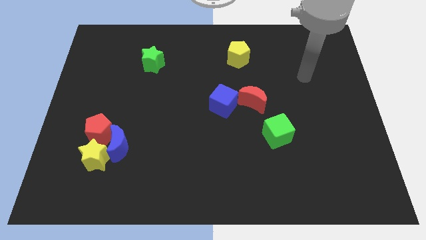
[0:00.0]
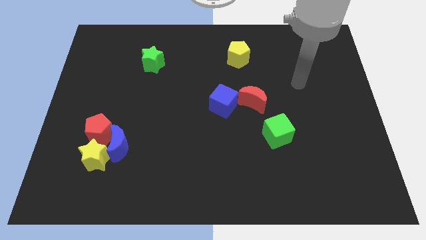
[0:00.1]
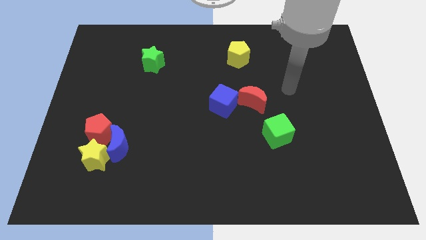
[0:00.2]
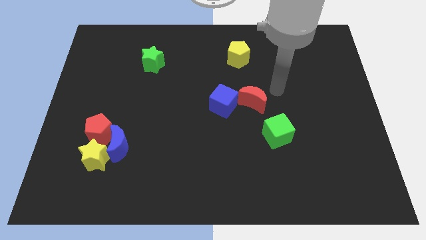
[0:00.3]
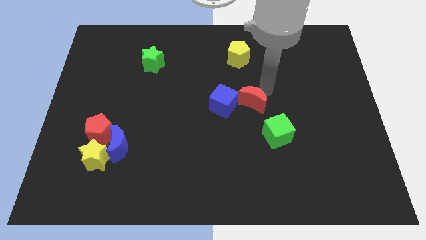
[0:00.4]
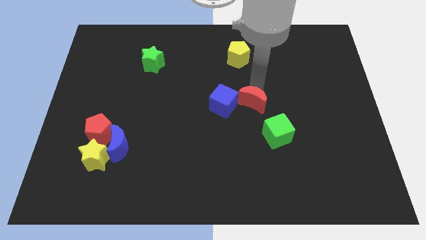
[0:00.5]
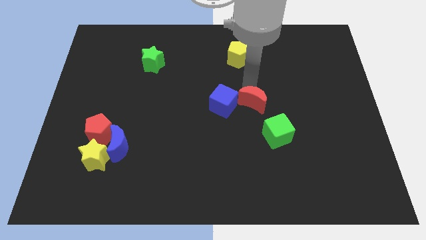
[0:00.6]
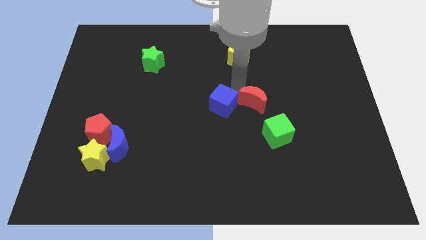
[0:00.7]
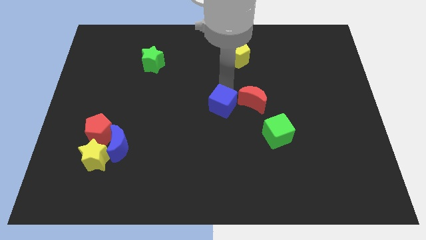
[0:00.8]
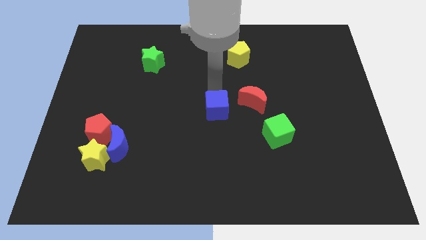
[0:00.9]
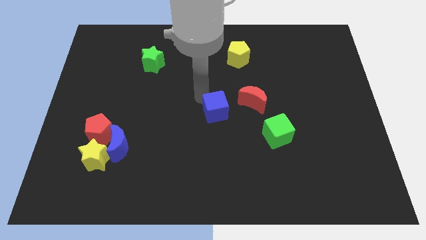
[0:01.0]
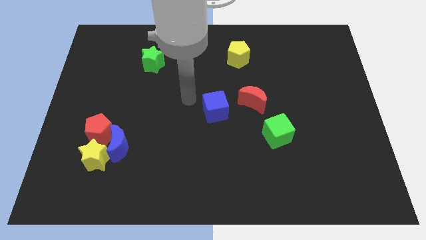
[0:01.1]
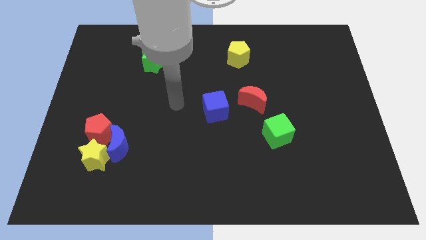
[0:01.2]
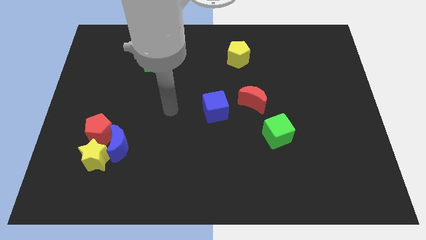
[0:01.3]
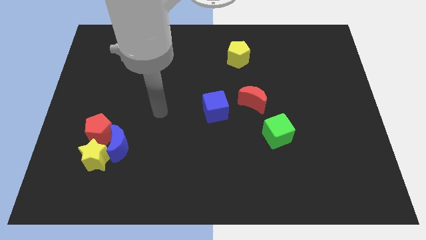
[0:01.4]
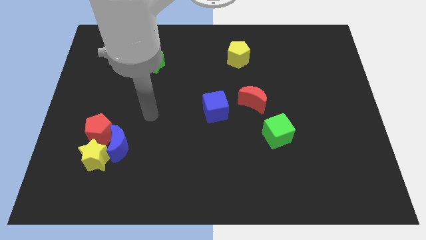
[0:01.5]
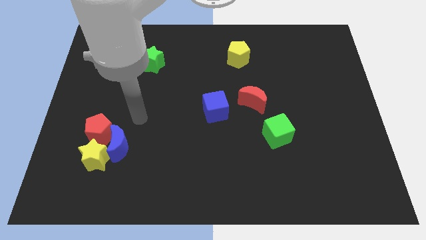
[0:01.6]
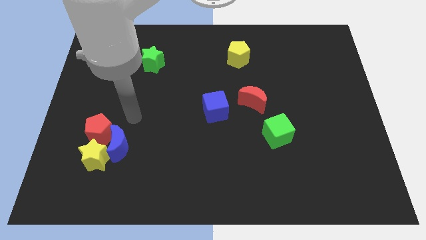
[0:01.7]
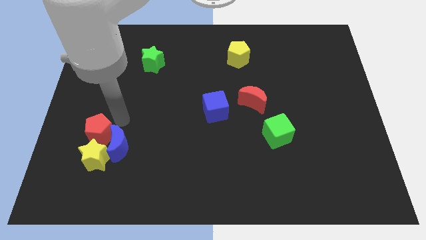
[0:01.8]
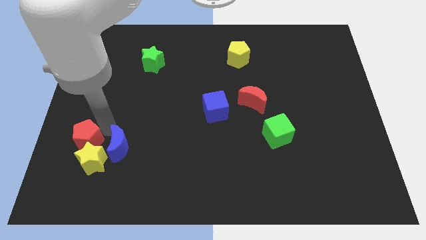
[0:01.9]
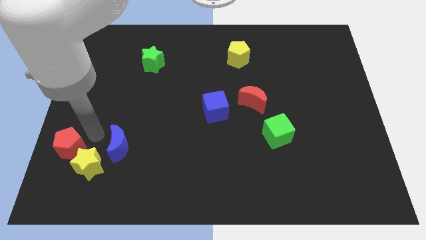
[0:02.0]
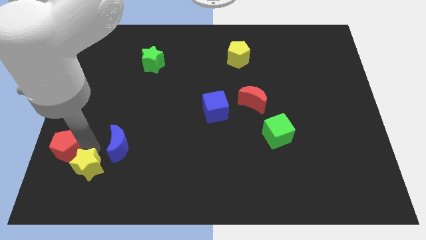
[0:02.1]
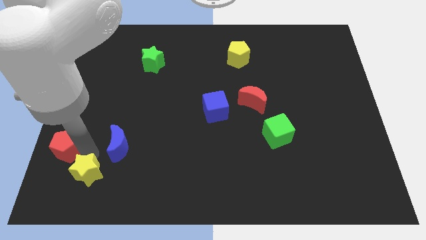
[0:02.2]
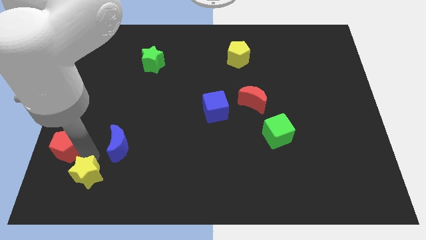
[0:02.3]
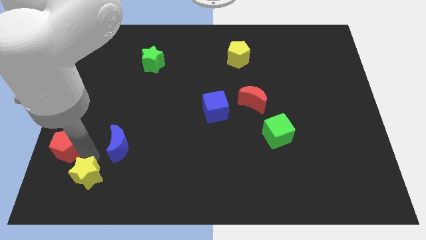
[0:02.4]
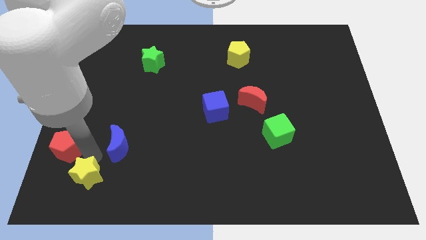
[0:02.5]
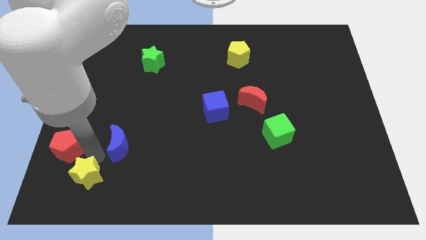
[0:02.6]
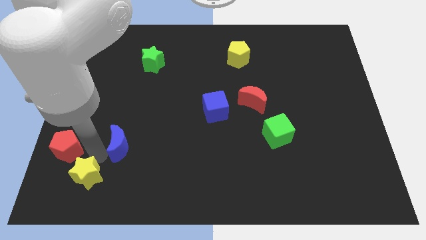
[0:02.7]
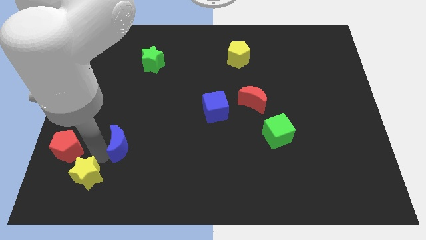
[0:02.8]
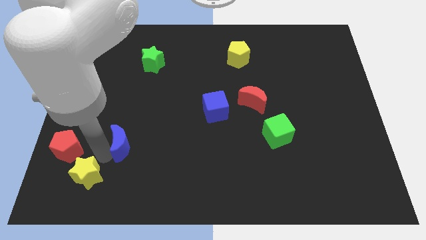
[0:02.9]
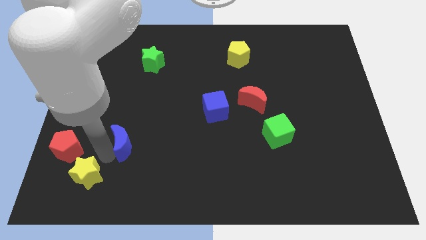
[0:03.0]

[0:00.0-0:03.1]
separate the blue moon from the yellow star and red pentagon

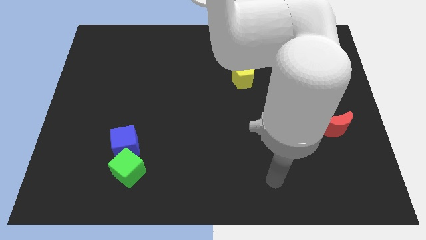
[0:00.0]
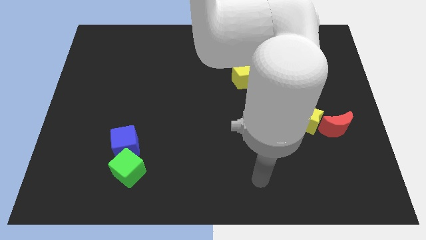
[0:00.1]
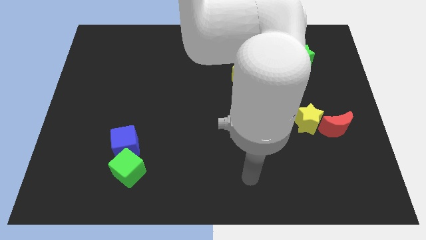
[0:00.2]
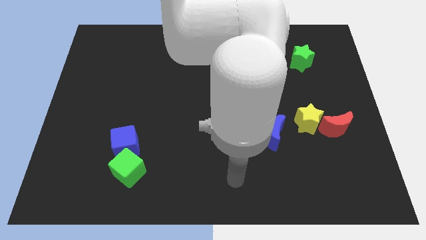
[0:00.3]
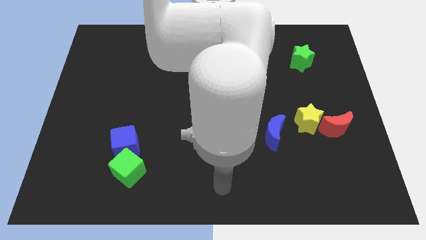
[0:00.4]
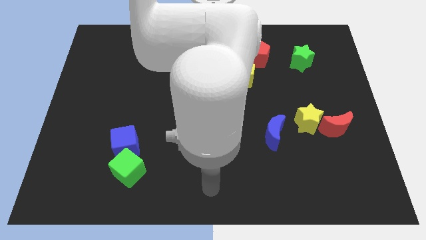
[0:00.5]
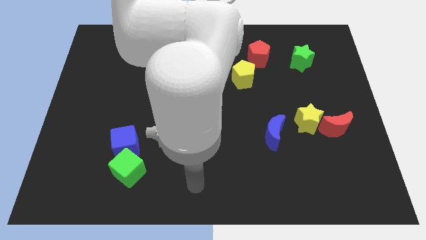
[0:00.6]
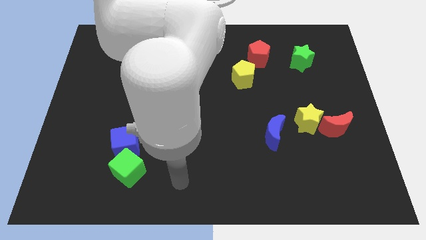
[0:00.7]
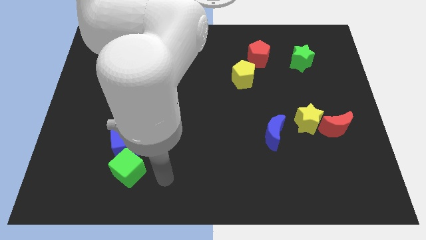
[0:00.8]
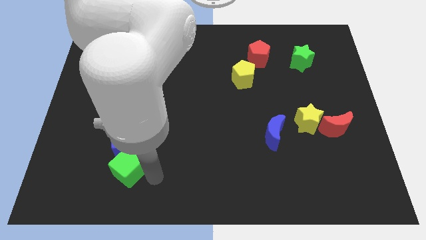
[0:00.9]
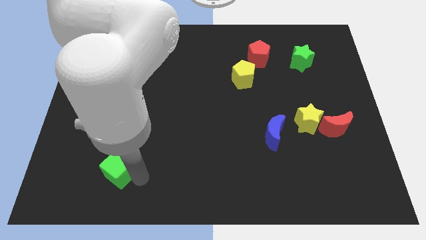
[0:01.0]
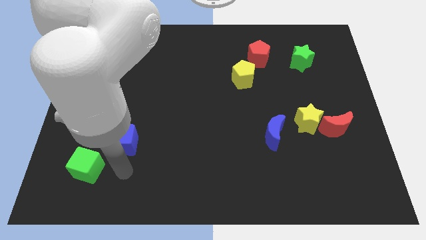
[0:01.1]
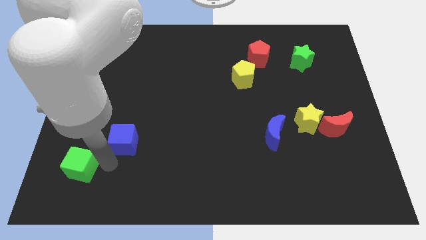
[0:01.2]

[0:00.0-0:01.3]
pull the blue cube apart from the green cube

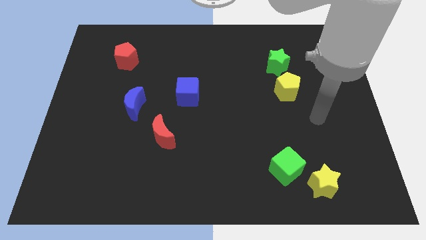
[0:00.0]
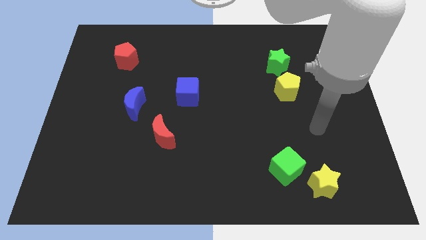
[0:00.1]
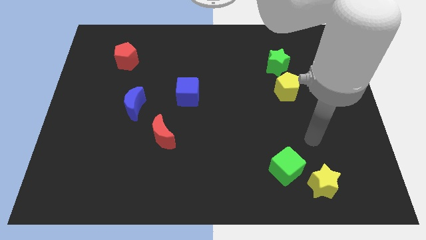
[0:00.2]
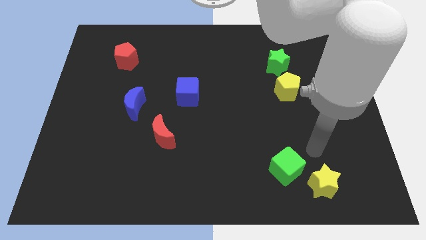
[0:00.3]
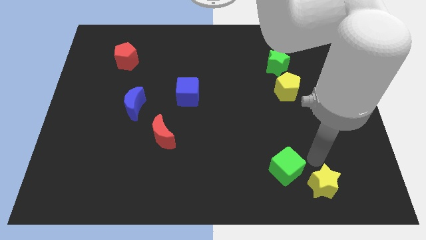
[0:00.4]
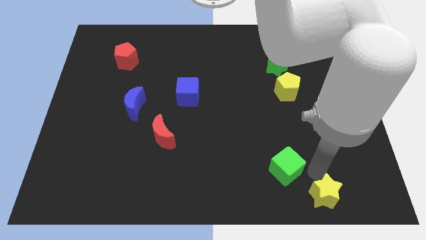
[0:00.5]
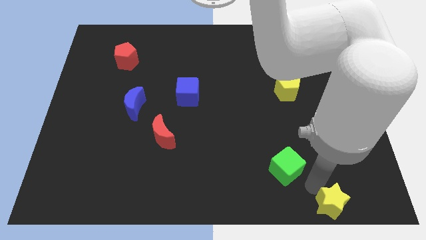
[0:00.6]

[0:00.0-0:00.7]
pull the green cube apart from the yellow star

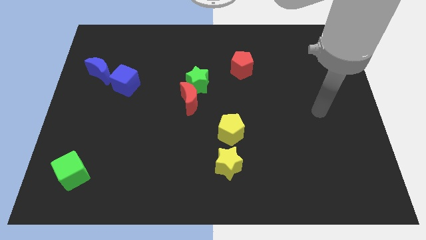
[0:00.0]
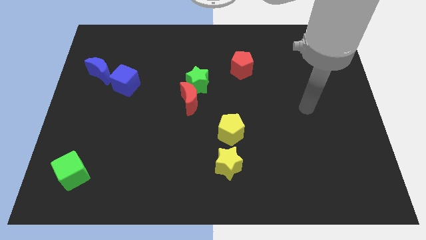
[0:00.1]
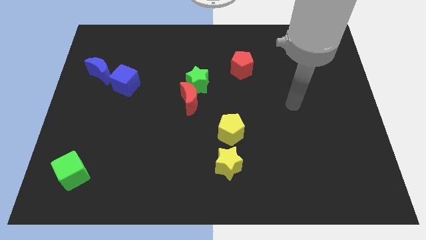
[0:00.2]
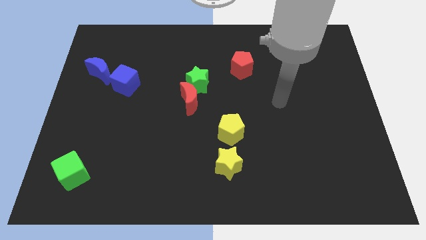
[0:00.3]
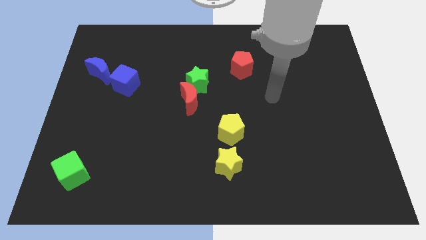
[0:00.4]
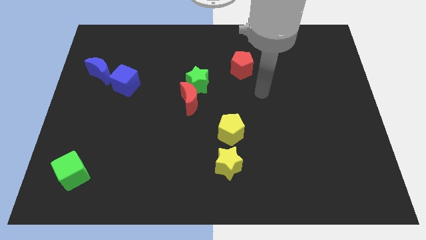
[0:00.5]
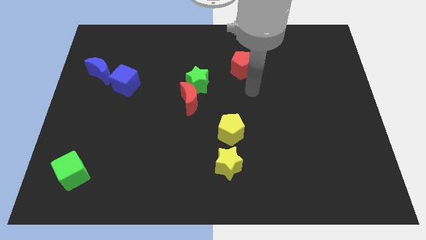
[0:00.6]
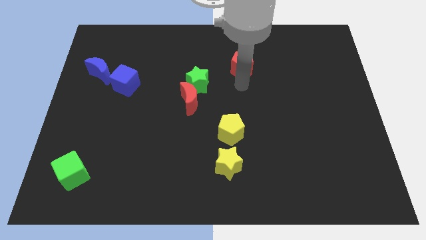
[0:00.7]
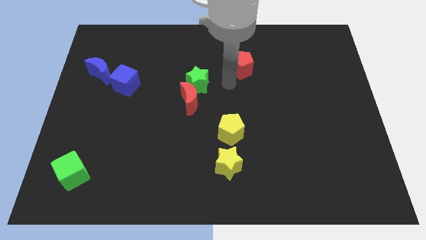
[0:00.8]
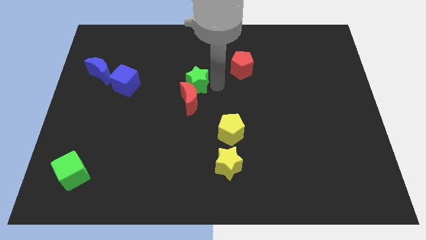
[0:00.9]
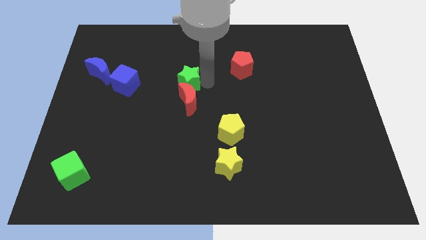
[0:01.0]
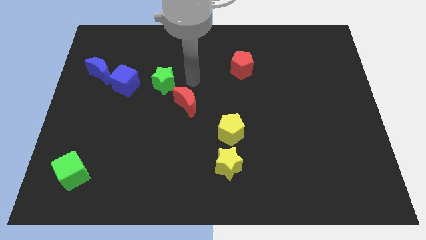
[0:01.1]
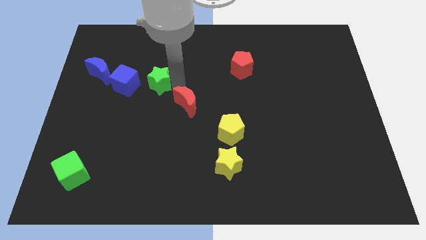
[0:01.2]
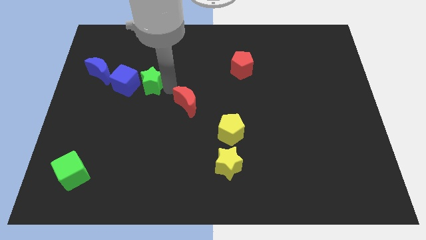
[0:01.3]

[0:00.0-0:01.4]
pull the red moon apart from the green star

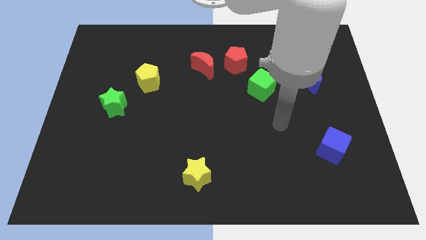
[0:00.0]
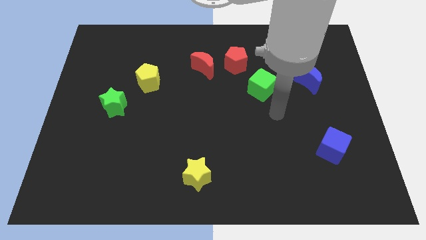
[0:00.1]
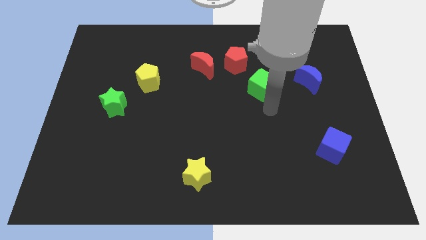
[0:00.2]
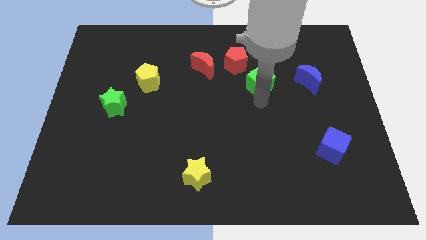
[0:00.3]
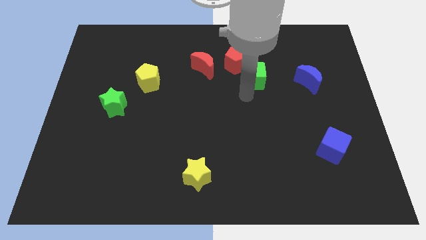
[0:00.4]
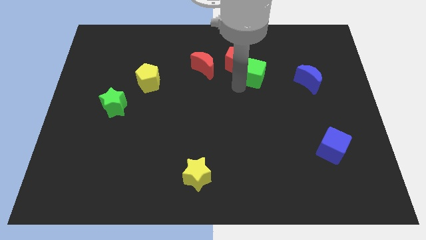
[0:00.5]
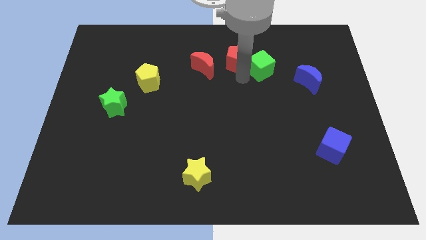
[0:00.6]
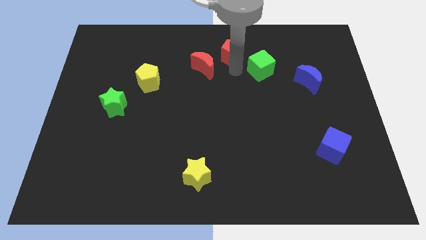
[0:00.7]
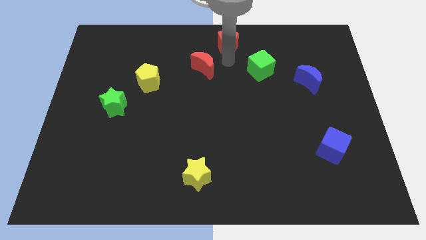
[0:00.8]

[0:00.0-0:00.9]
pull the red moon apart from the red pentagon

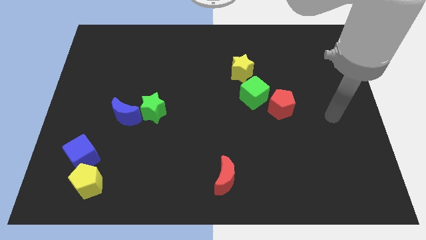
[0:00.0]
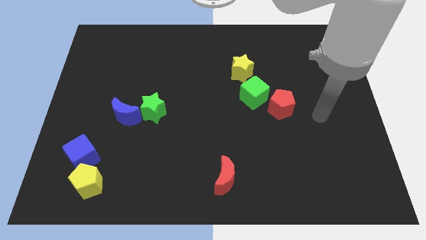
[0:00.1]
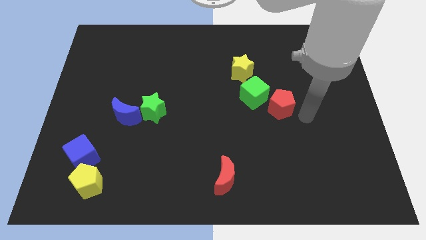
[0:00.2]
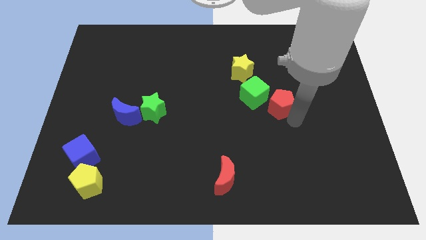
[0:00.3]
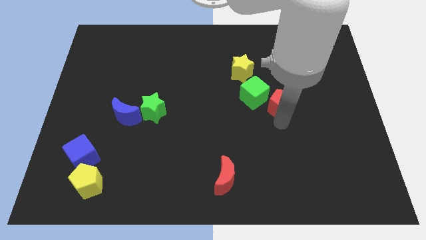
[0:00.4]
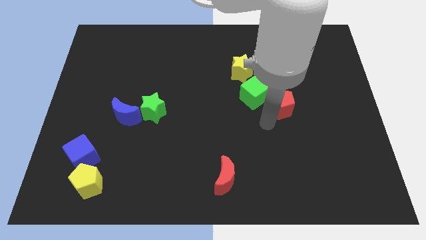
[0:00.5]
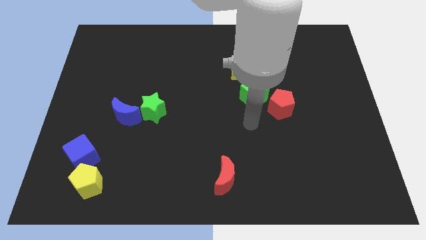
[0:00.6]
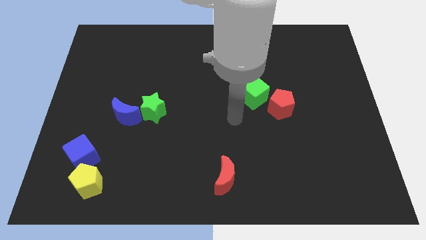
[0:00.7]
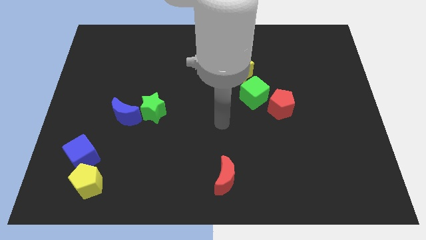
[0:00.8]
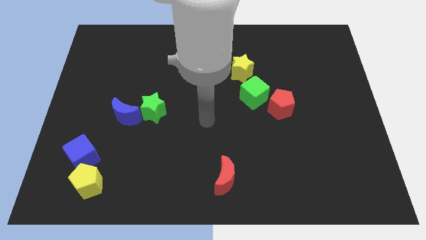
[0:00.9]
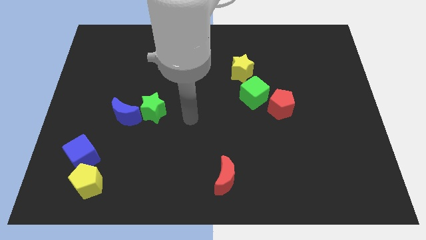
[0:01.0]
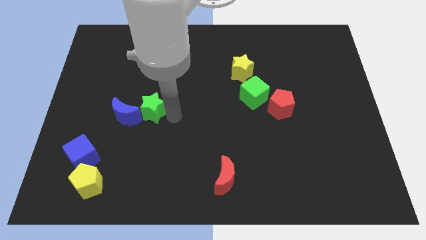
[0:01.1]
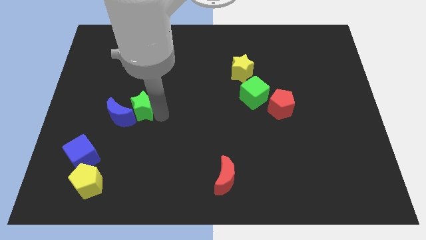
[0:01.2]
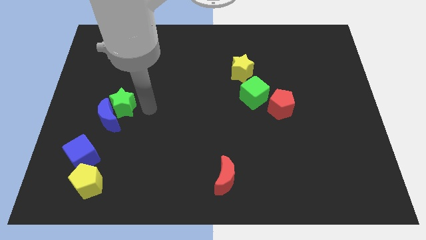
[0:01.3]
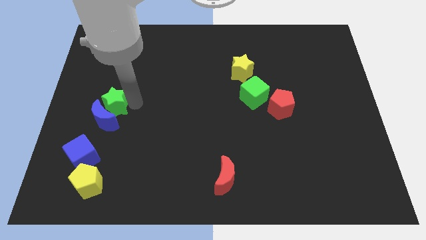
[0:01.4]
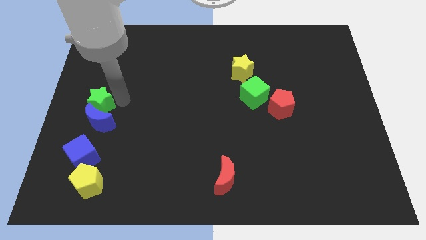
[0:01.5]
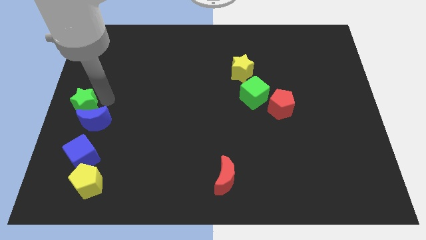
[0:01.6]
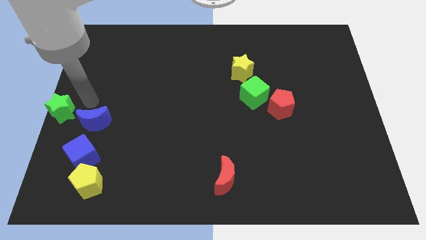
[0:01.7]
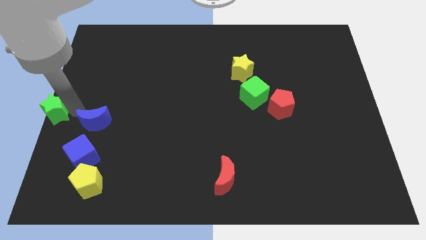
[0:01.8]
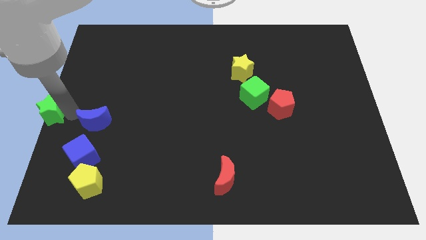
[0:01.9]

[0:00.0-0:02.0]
move the blue moon away from the green star
